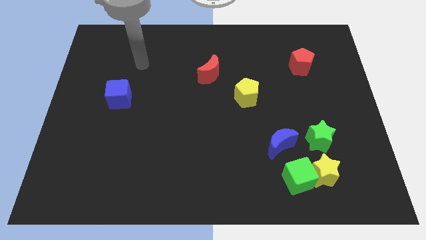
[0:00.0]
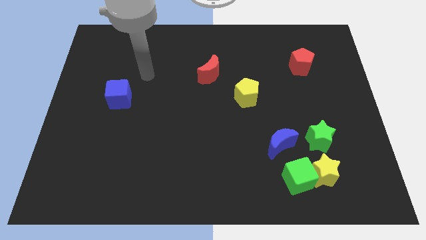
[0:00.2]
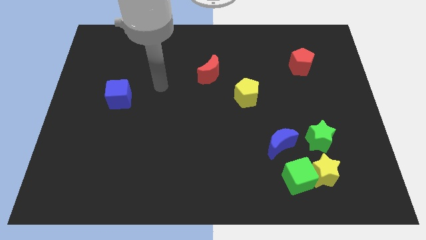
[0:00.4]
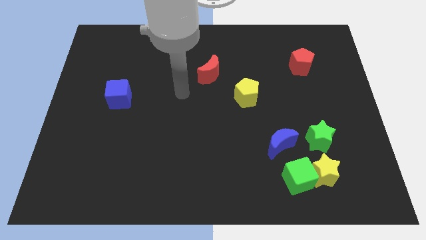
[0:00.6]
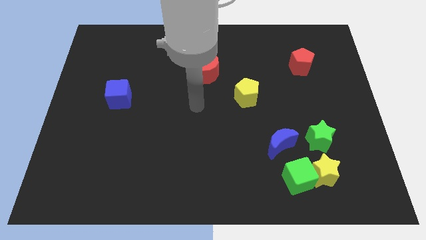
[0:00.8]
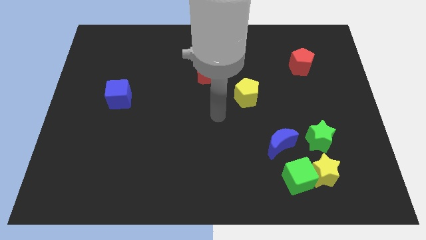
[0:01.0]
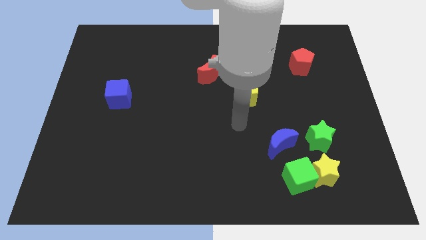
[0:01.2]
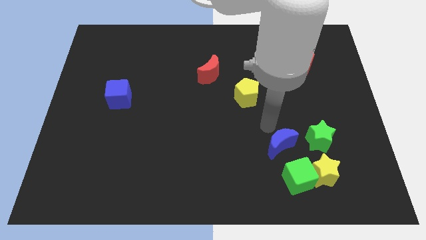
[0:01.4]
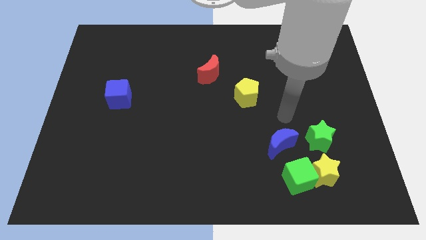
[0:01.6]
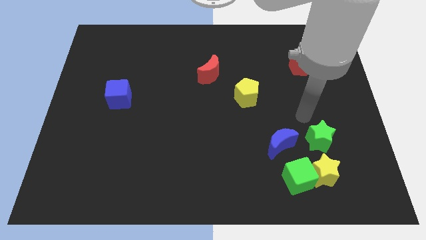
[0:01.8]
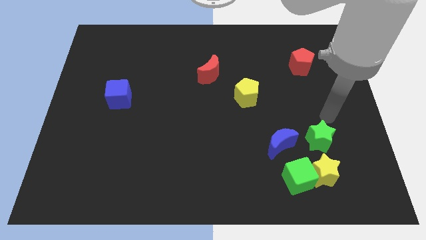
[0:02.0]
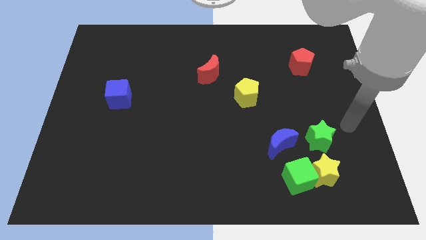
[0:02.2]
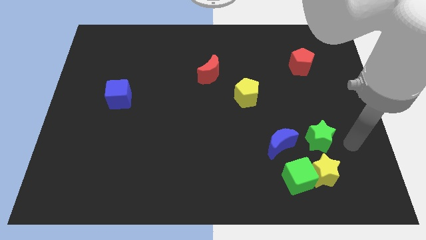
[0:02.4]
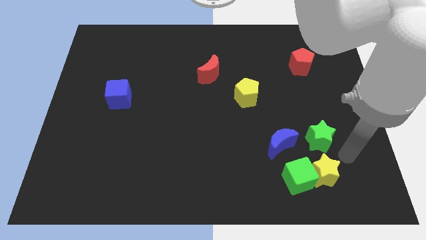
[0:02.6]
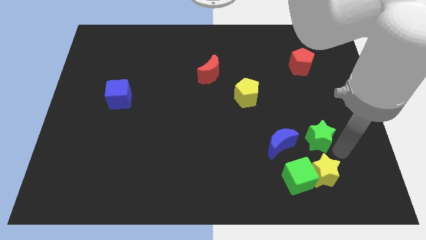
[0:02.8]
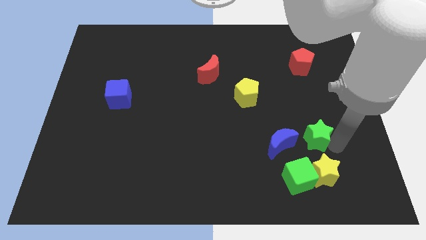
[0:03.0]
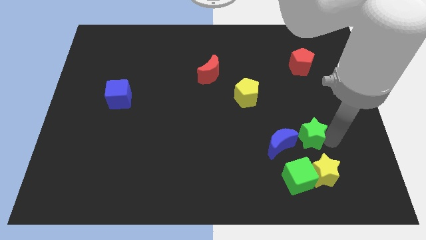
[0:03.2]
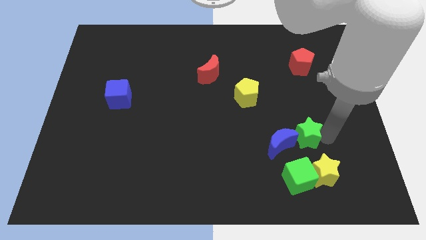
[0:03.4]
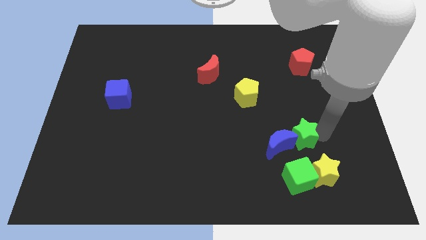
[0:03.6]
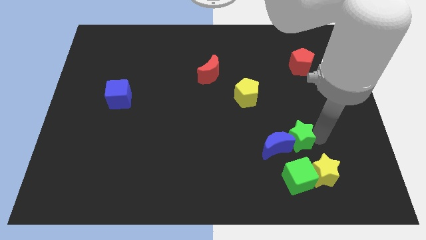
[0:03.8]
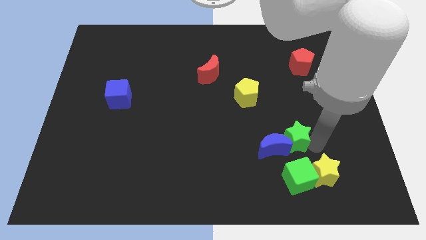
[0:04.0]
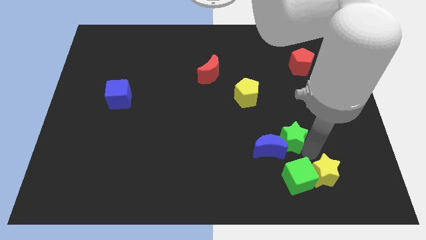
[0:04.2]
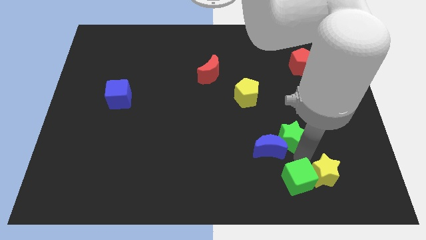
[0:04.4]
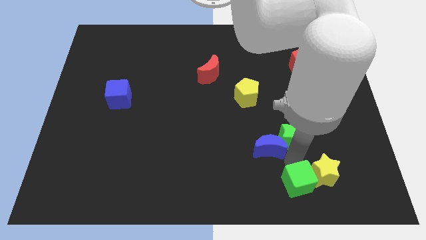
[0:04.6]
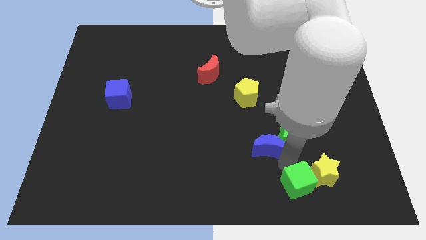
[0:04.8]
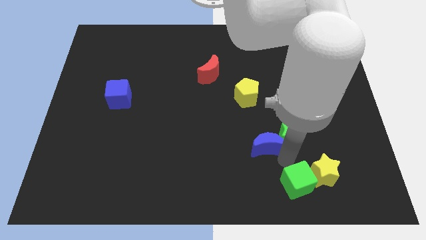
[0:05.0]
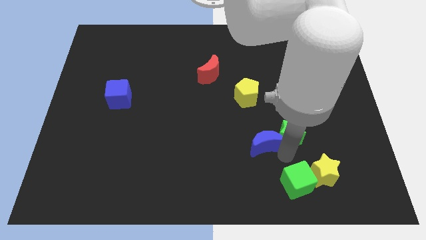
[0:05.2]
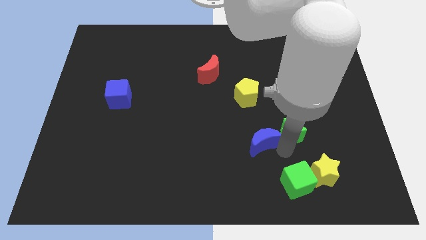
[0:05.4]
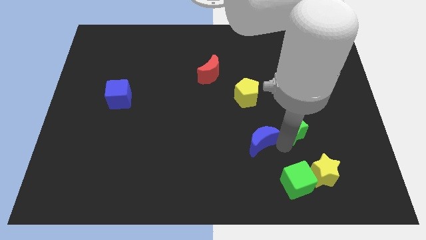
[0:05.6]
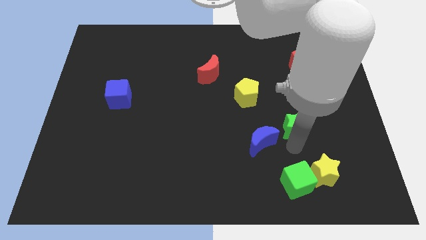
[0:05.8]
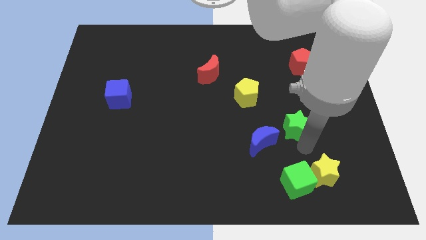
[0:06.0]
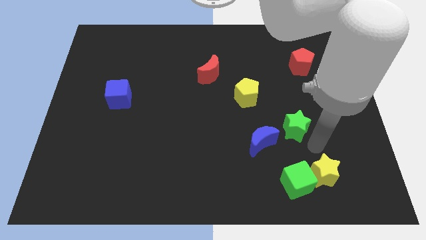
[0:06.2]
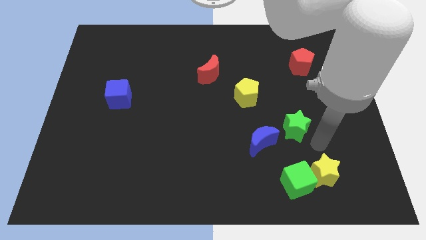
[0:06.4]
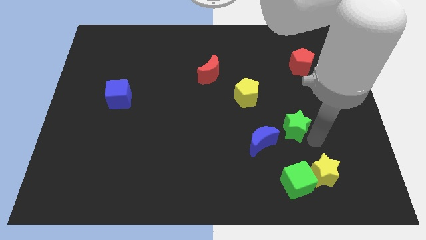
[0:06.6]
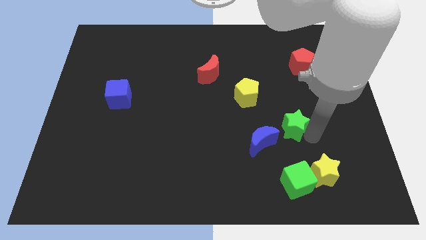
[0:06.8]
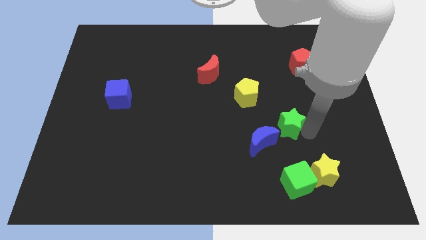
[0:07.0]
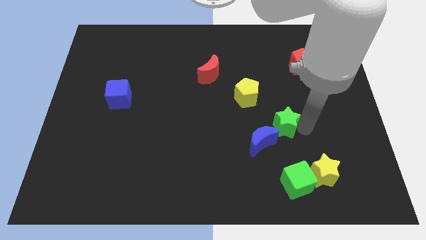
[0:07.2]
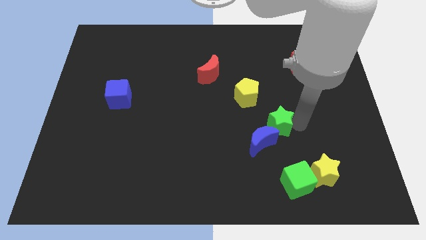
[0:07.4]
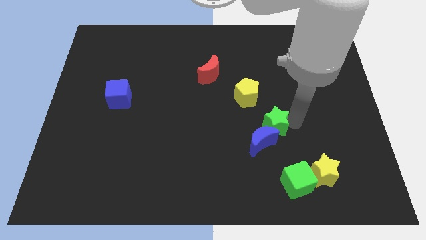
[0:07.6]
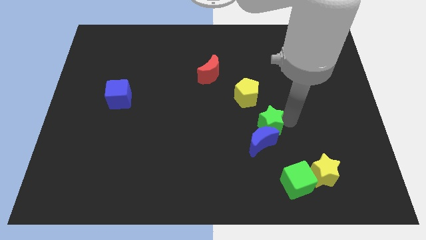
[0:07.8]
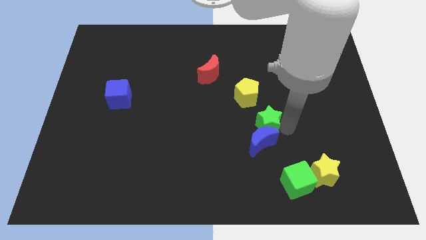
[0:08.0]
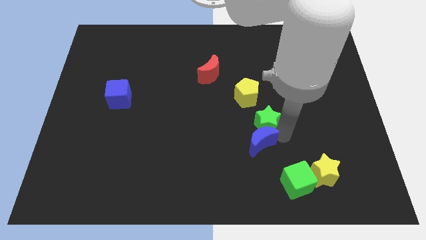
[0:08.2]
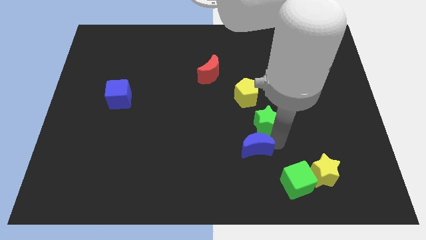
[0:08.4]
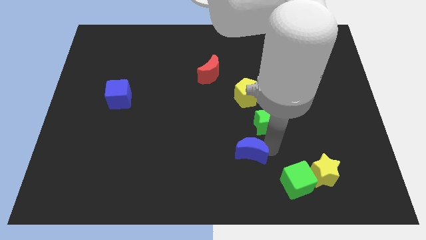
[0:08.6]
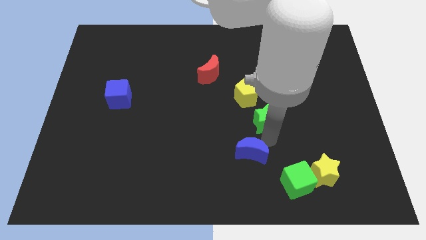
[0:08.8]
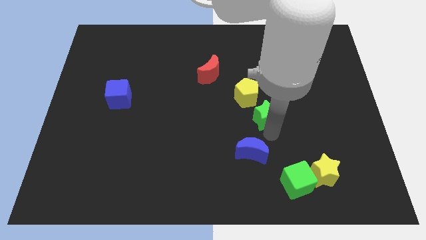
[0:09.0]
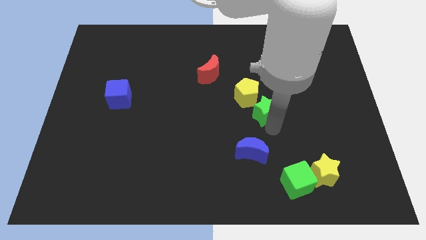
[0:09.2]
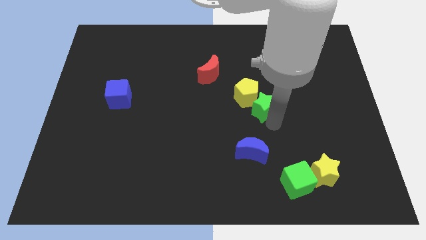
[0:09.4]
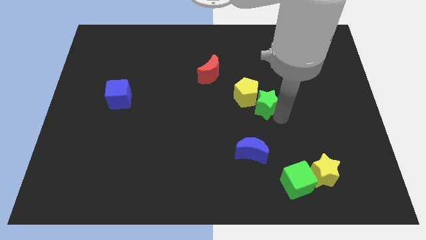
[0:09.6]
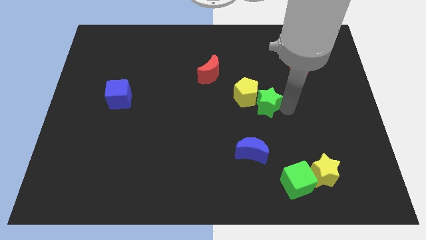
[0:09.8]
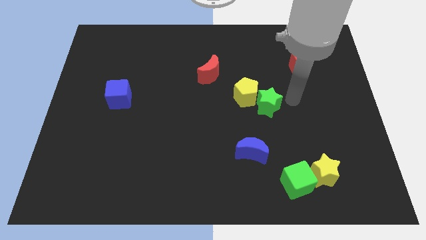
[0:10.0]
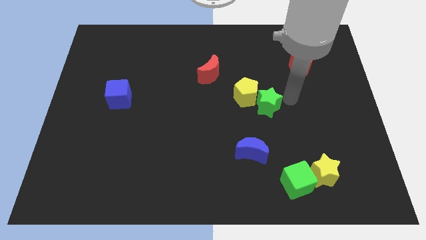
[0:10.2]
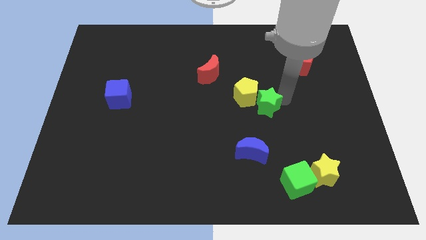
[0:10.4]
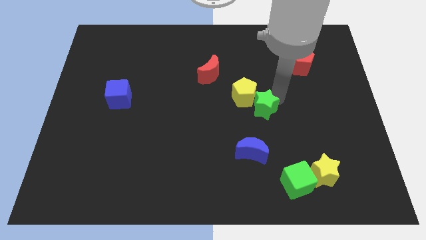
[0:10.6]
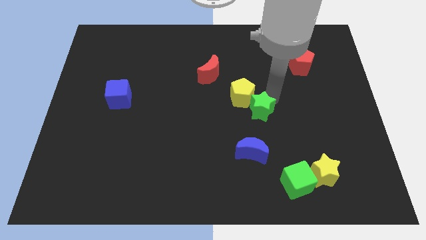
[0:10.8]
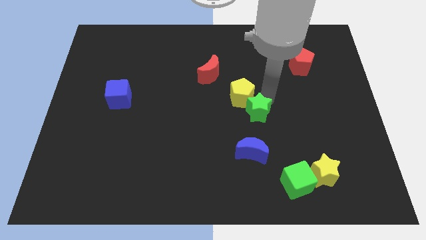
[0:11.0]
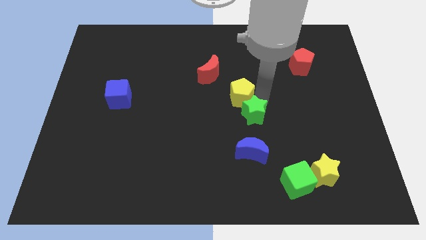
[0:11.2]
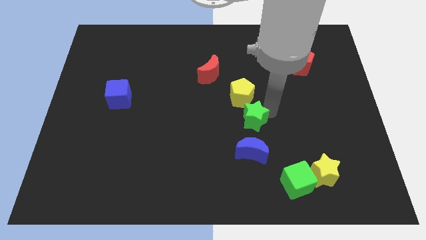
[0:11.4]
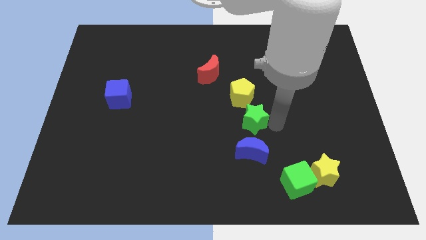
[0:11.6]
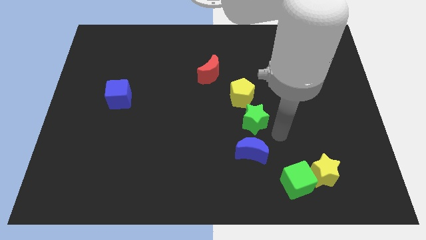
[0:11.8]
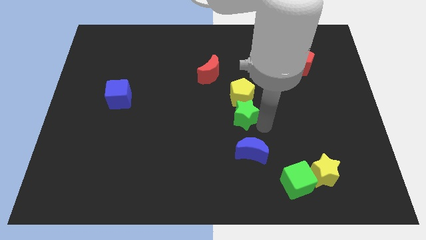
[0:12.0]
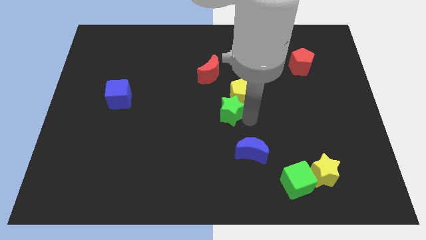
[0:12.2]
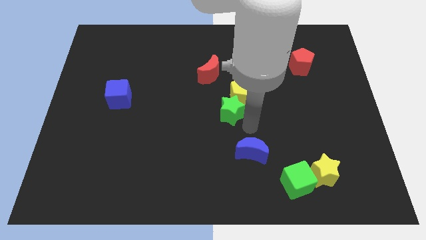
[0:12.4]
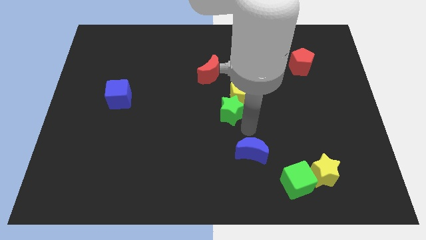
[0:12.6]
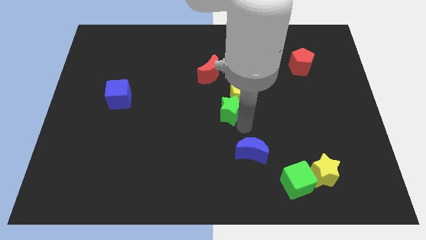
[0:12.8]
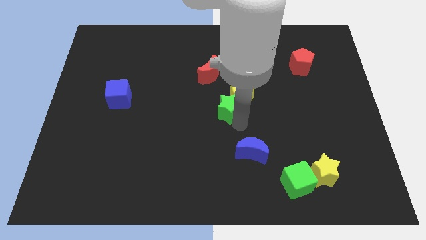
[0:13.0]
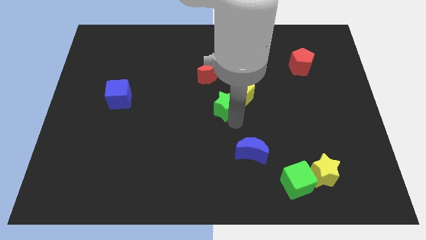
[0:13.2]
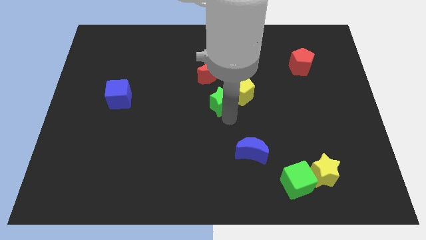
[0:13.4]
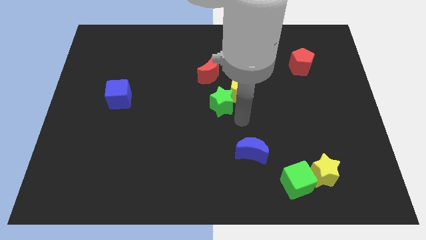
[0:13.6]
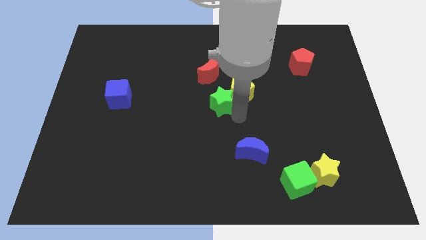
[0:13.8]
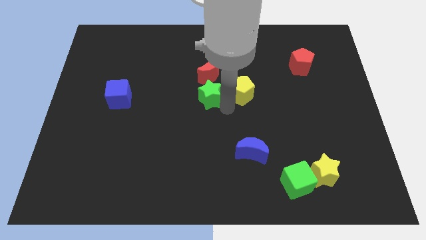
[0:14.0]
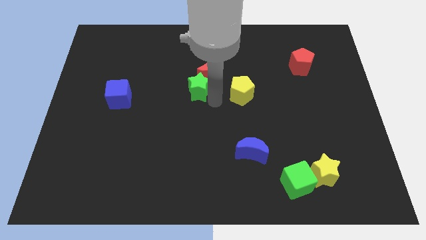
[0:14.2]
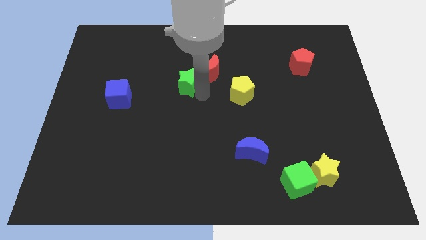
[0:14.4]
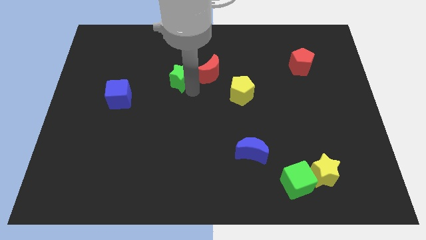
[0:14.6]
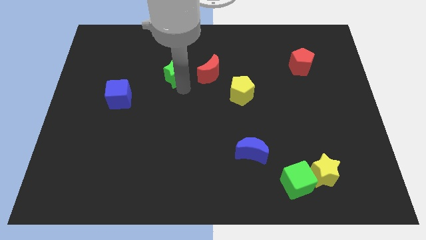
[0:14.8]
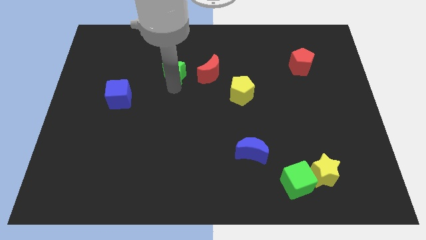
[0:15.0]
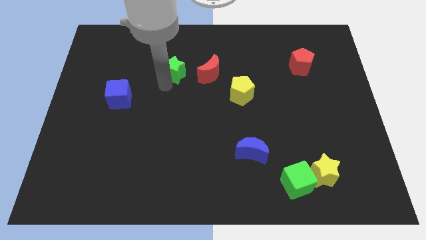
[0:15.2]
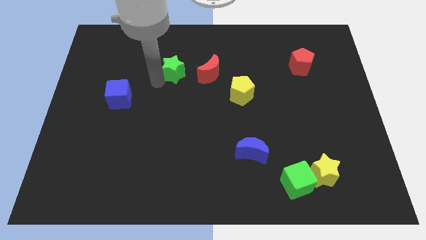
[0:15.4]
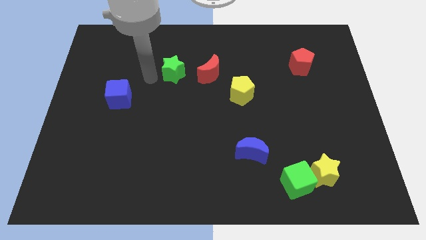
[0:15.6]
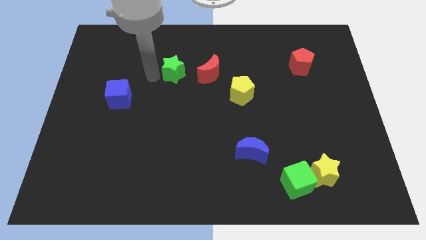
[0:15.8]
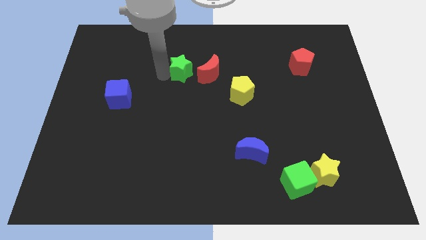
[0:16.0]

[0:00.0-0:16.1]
put the green star to the top left side of the red moon
